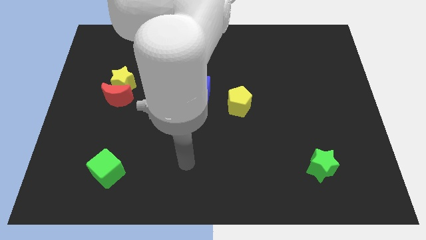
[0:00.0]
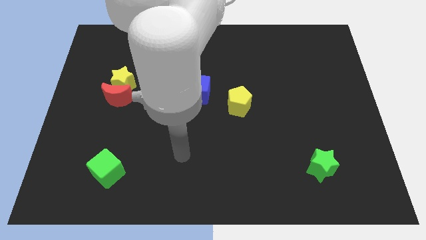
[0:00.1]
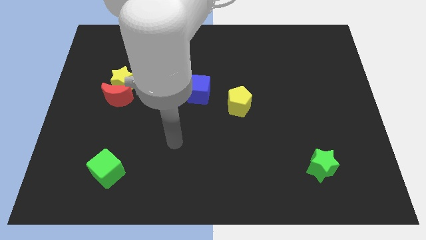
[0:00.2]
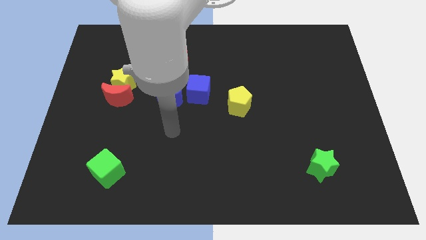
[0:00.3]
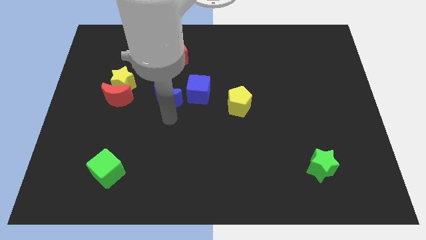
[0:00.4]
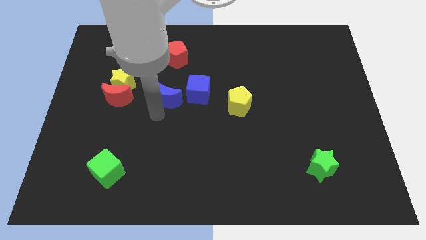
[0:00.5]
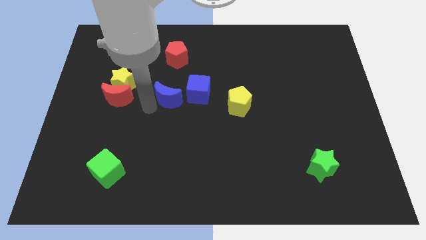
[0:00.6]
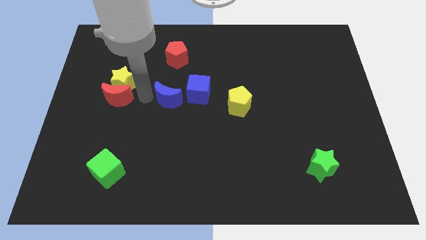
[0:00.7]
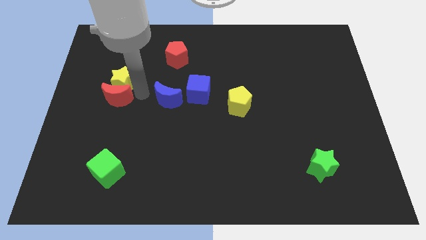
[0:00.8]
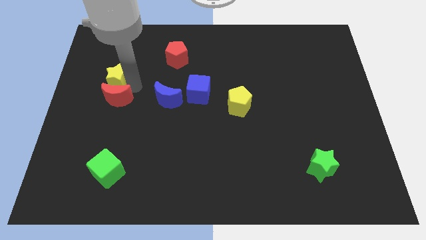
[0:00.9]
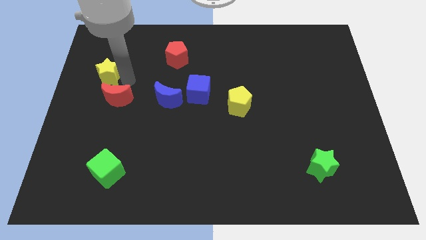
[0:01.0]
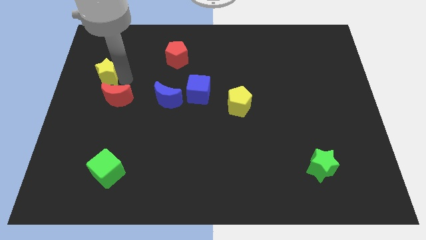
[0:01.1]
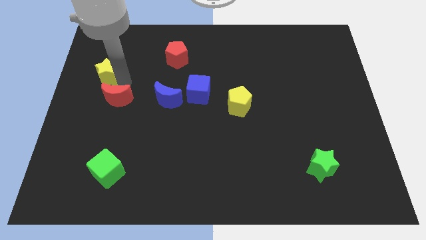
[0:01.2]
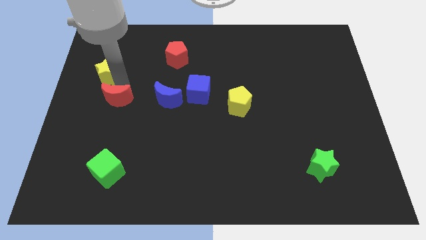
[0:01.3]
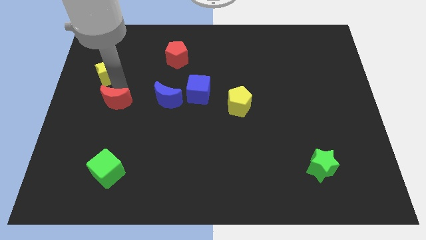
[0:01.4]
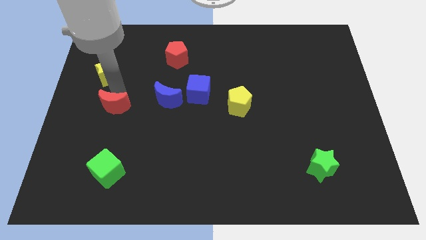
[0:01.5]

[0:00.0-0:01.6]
pull the red moon apart from the yellow star

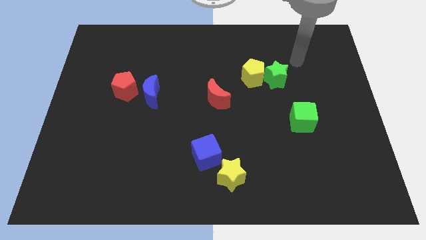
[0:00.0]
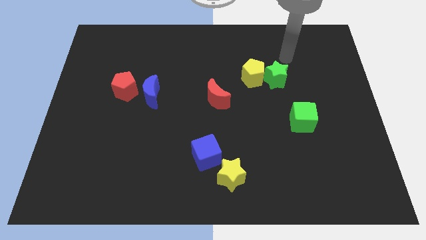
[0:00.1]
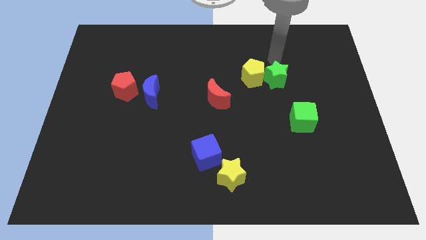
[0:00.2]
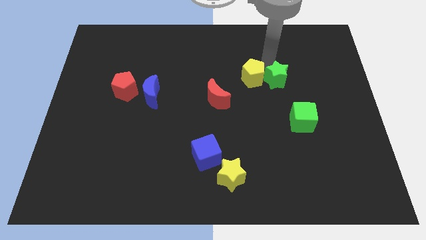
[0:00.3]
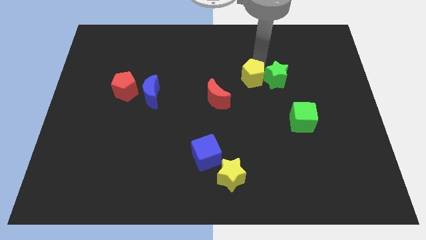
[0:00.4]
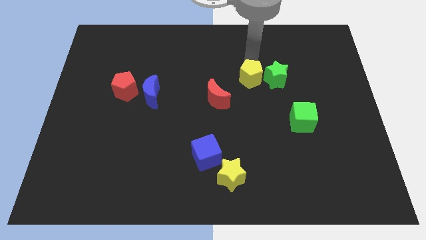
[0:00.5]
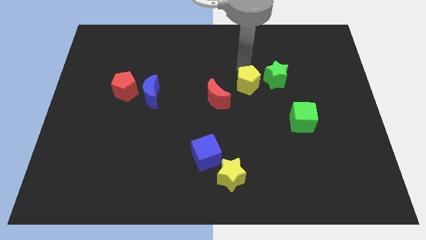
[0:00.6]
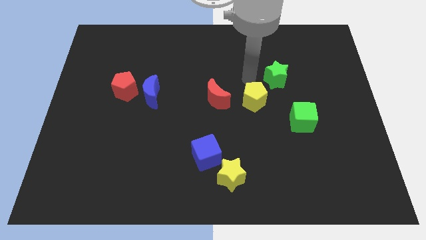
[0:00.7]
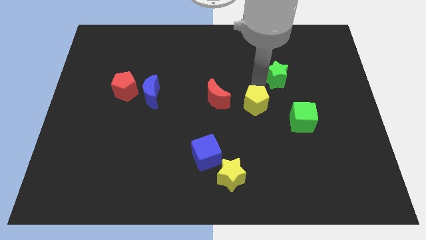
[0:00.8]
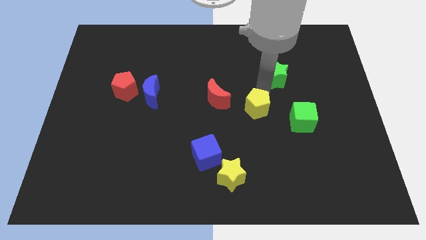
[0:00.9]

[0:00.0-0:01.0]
pull the green star apart from the yellow pentagon

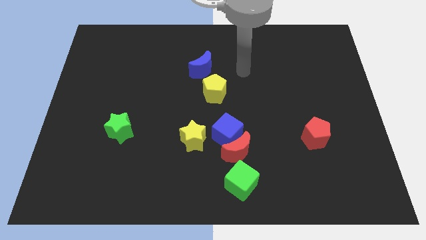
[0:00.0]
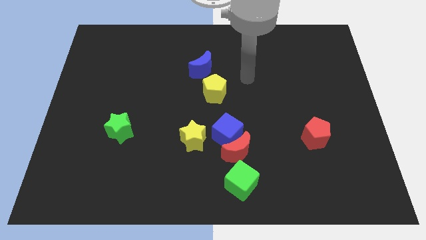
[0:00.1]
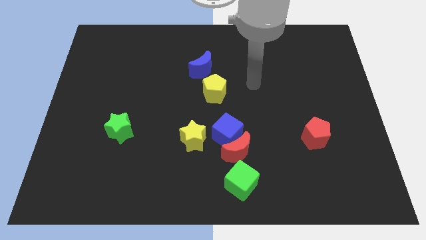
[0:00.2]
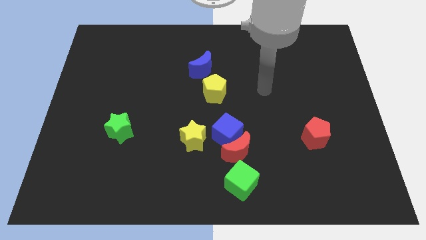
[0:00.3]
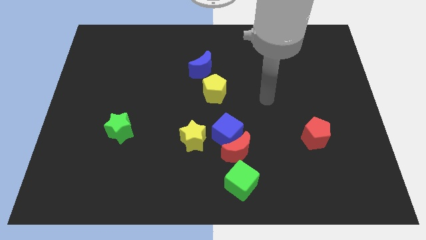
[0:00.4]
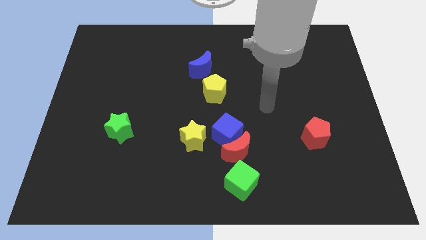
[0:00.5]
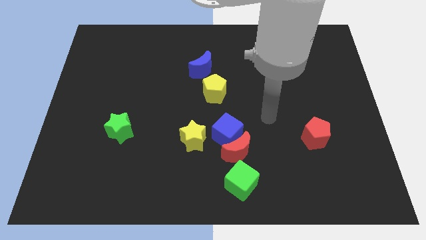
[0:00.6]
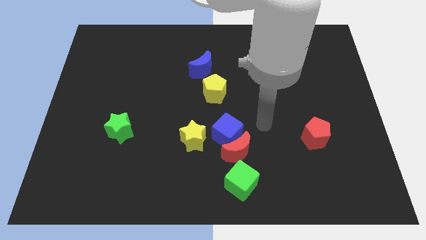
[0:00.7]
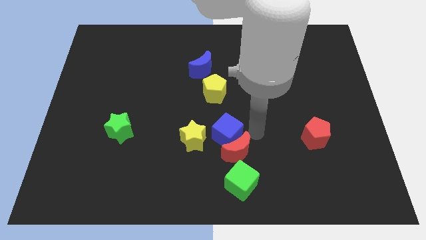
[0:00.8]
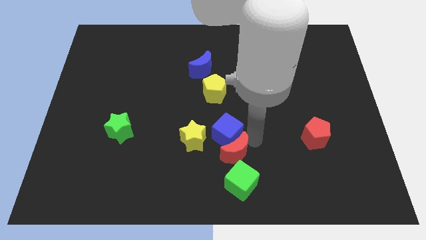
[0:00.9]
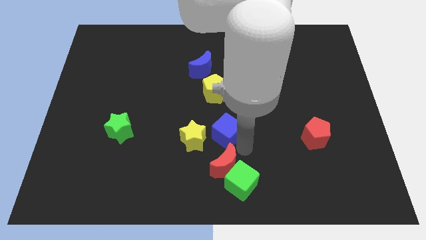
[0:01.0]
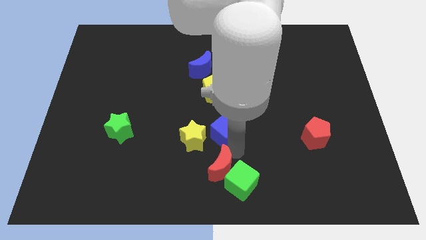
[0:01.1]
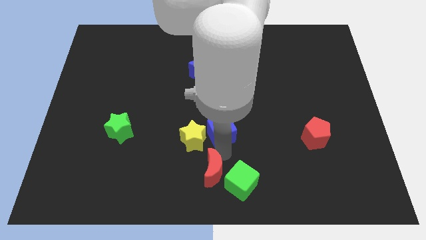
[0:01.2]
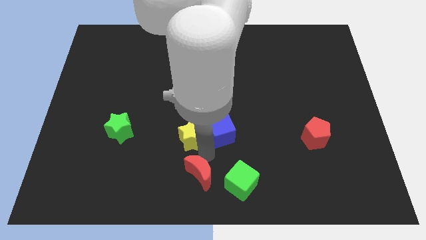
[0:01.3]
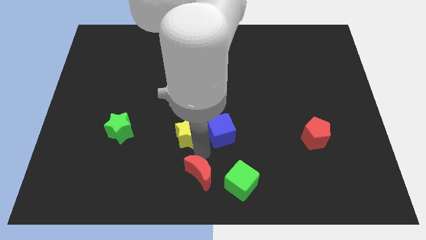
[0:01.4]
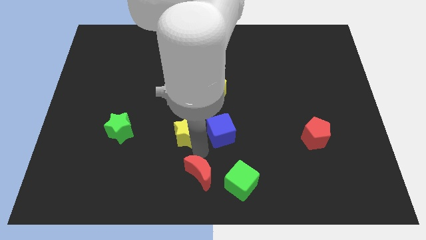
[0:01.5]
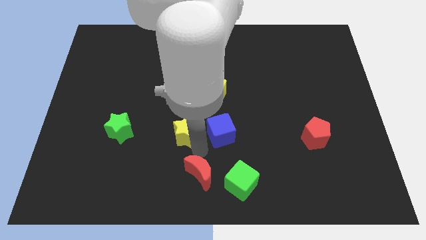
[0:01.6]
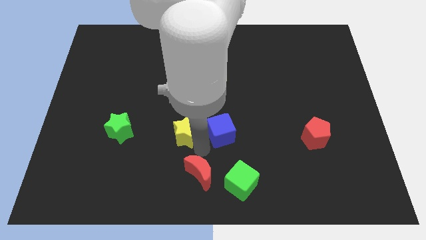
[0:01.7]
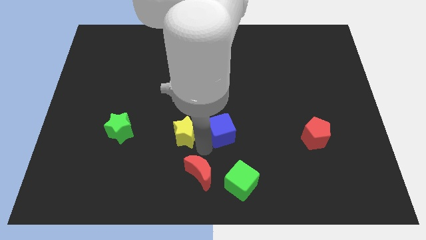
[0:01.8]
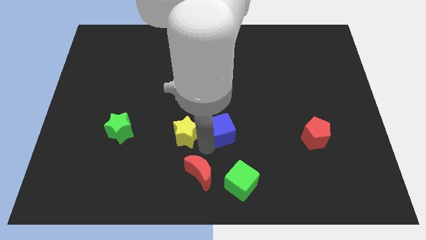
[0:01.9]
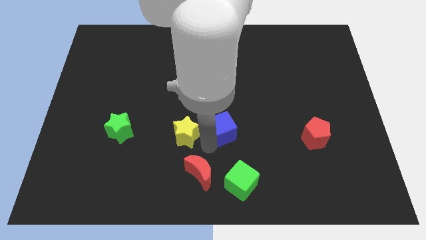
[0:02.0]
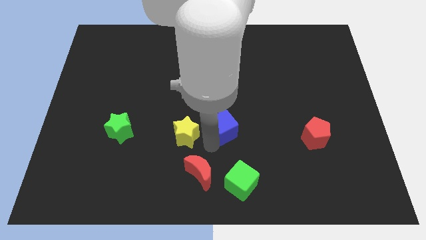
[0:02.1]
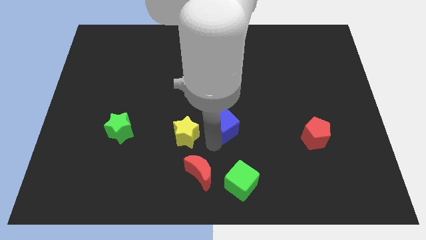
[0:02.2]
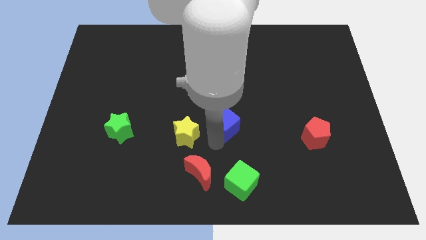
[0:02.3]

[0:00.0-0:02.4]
move the blue cube away from the red moon and yellow star

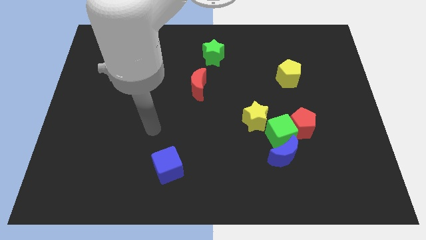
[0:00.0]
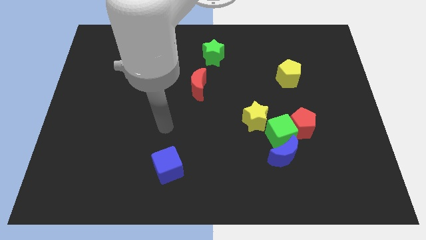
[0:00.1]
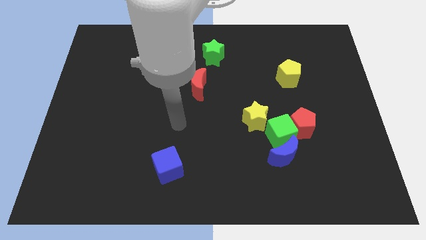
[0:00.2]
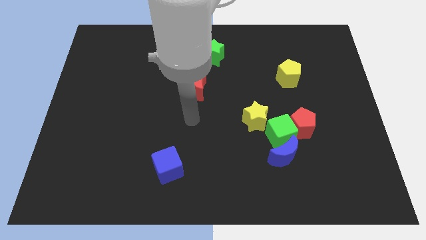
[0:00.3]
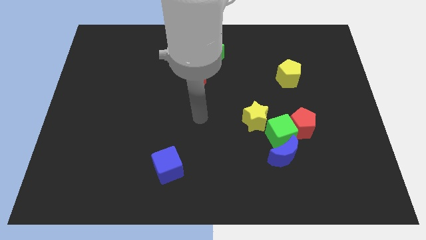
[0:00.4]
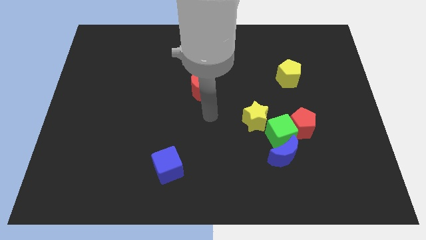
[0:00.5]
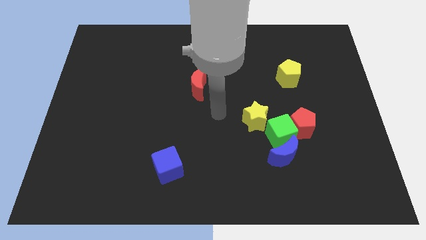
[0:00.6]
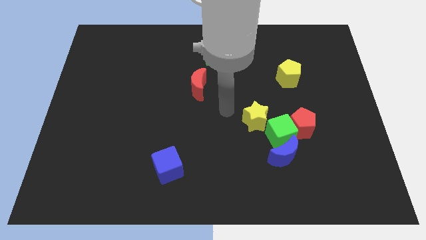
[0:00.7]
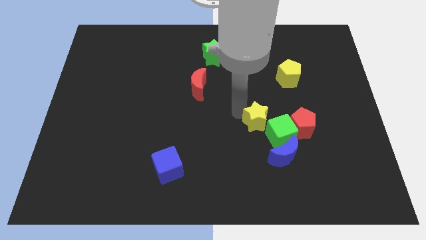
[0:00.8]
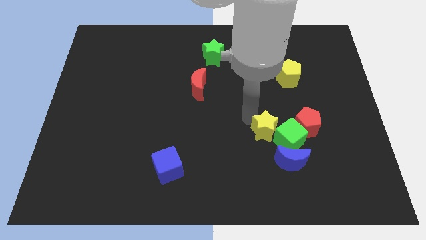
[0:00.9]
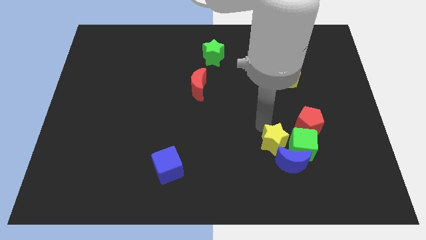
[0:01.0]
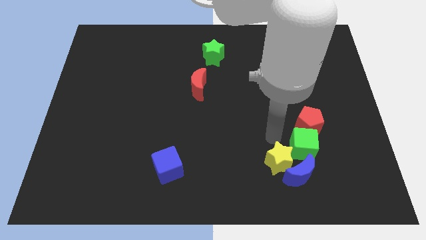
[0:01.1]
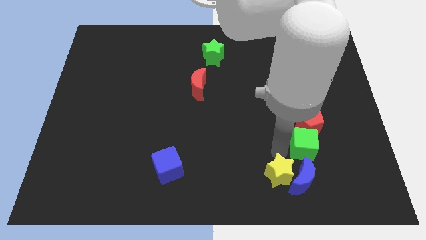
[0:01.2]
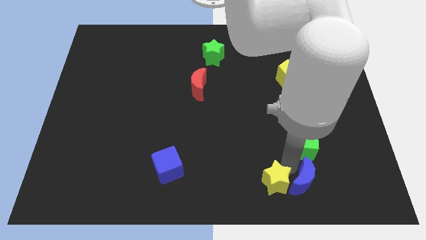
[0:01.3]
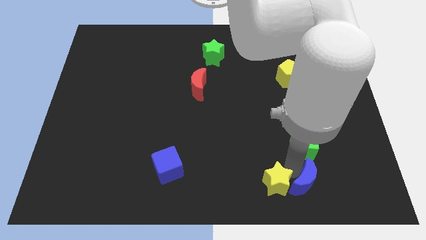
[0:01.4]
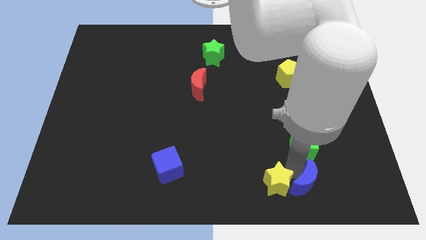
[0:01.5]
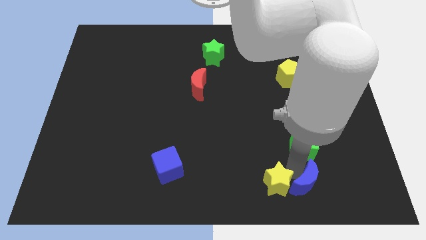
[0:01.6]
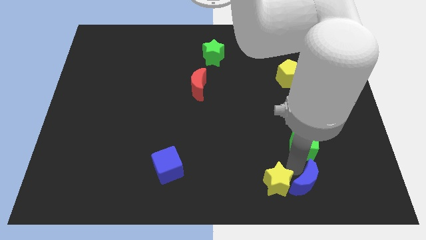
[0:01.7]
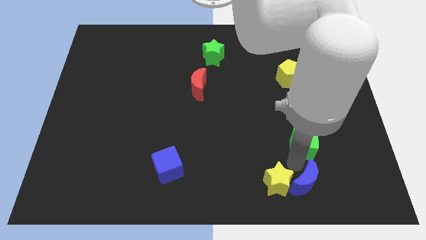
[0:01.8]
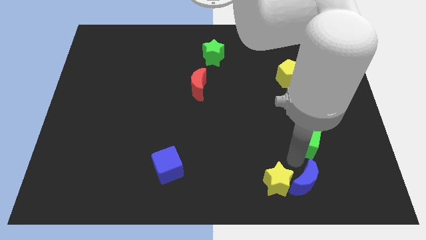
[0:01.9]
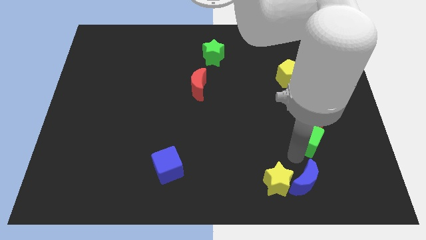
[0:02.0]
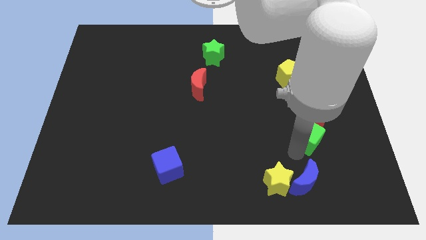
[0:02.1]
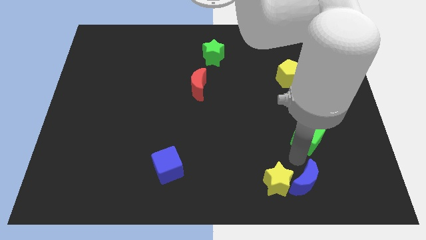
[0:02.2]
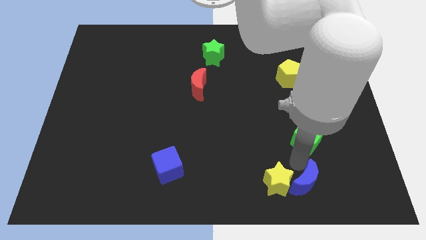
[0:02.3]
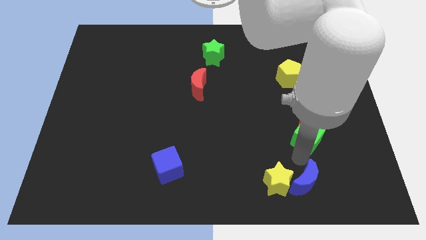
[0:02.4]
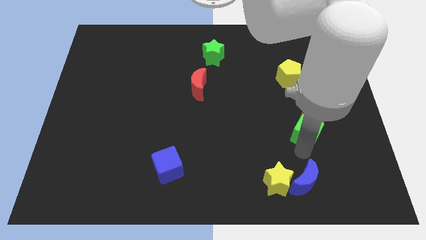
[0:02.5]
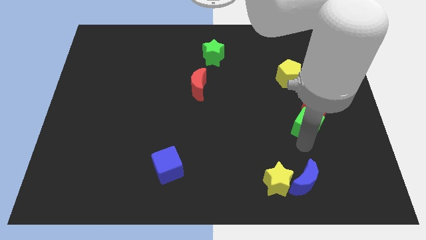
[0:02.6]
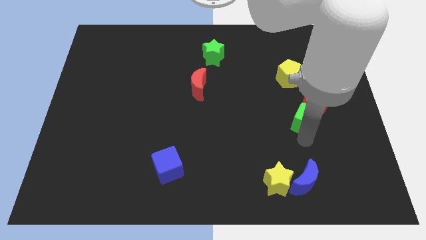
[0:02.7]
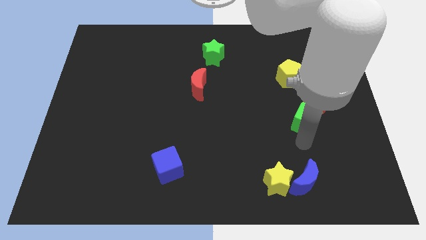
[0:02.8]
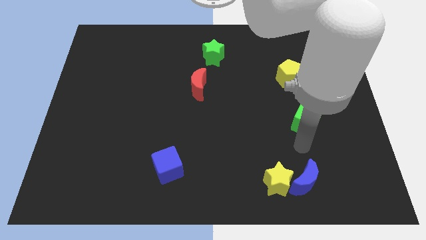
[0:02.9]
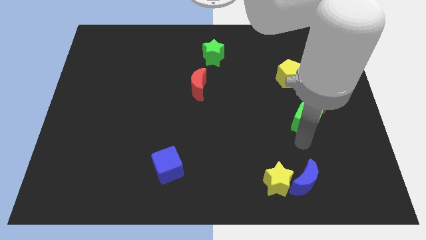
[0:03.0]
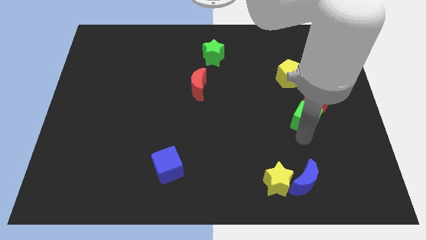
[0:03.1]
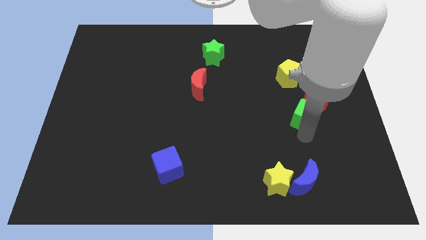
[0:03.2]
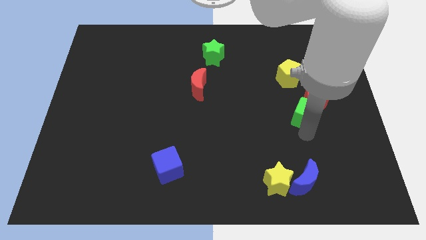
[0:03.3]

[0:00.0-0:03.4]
move the green cube away from the red pentagon, blue moon, and yellow star

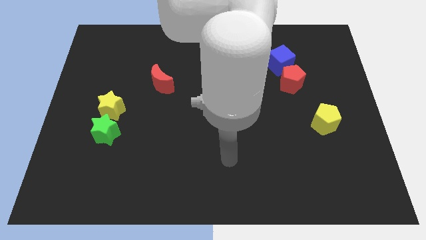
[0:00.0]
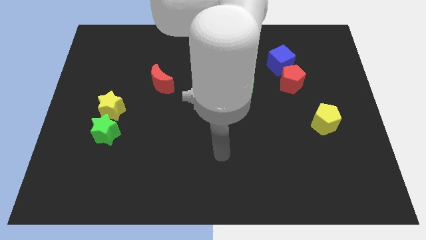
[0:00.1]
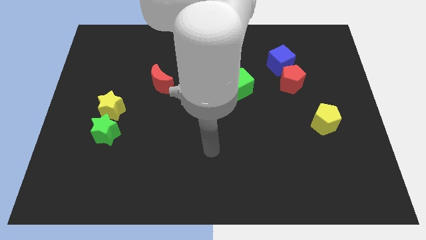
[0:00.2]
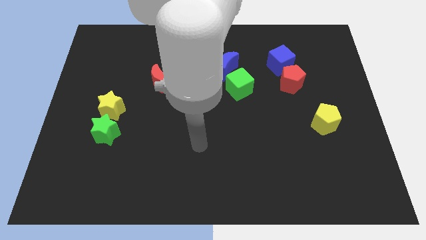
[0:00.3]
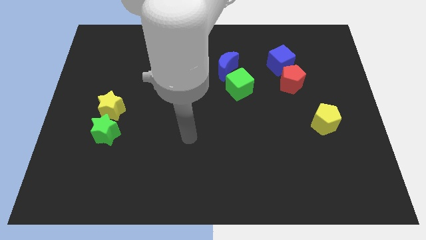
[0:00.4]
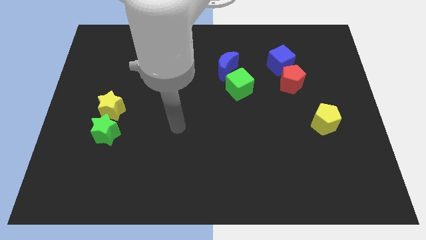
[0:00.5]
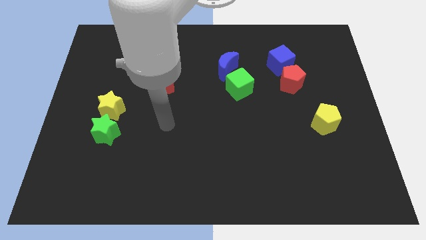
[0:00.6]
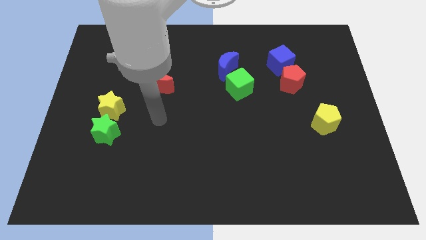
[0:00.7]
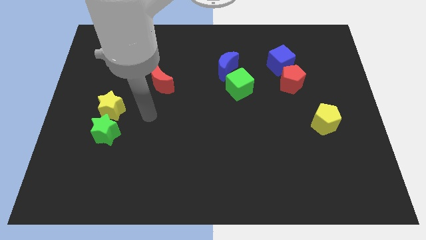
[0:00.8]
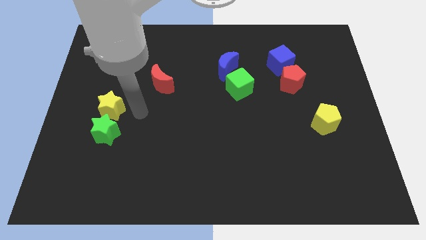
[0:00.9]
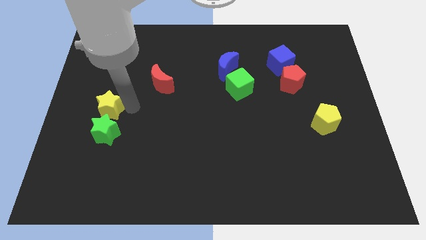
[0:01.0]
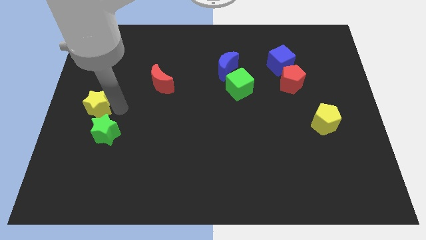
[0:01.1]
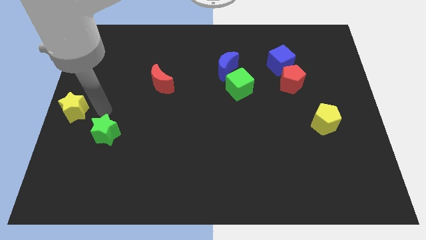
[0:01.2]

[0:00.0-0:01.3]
move the green star away from the yellow star
